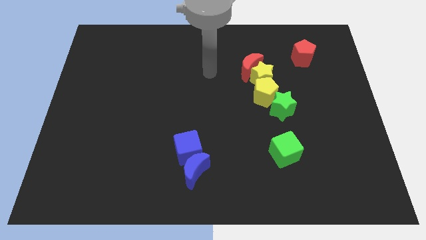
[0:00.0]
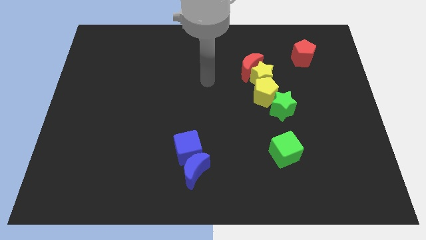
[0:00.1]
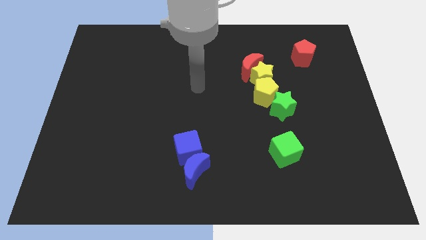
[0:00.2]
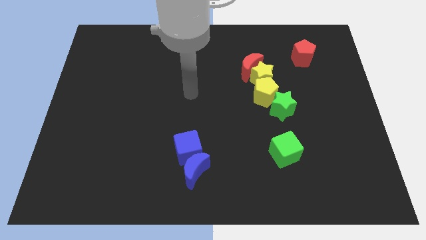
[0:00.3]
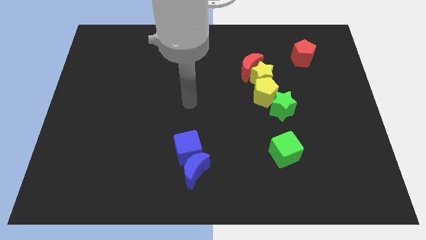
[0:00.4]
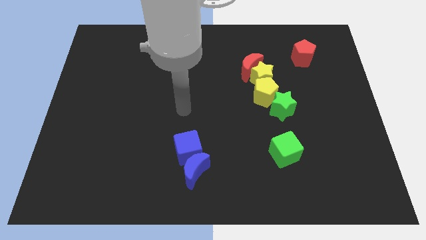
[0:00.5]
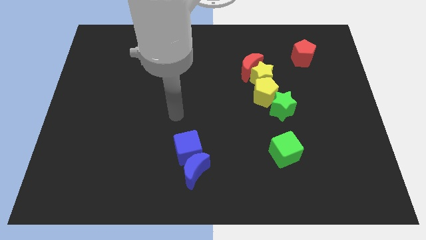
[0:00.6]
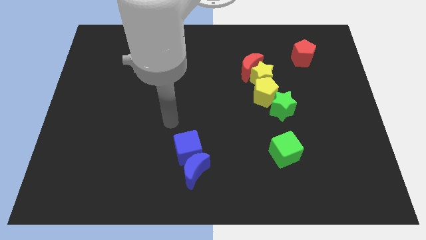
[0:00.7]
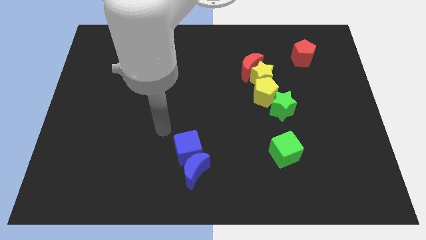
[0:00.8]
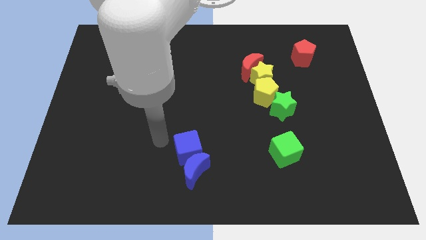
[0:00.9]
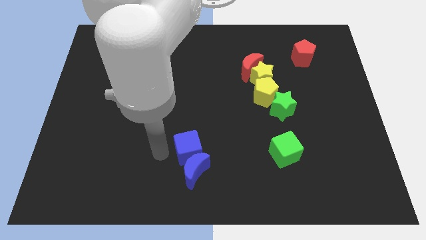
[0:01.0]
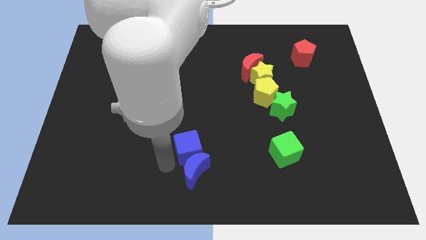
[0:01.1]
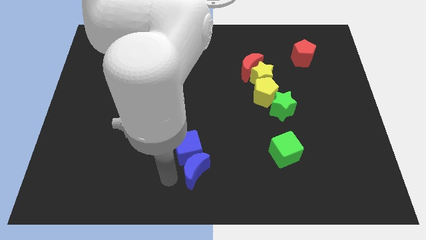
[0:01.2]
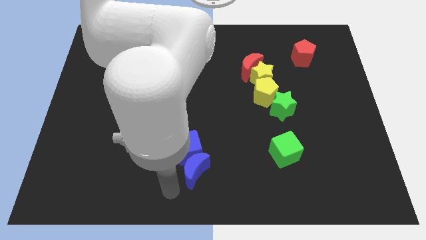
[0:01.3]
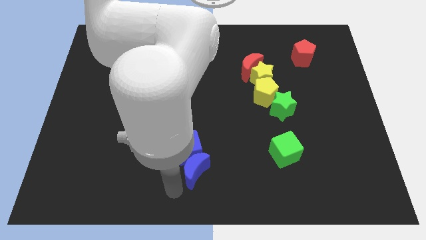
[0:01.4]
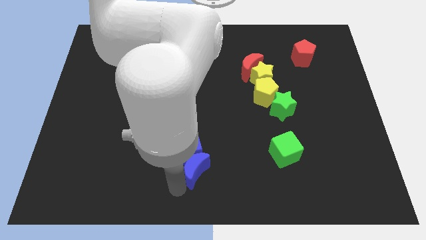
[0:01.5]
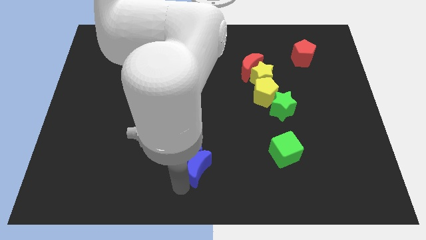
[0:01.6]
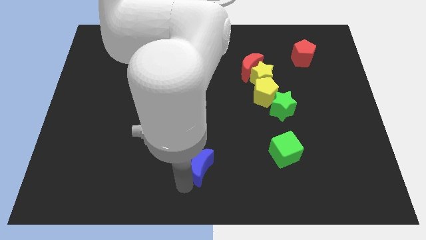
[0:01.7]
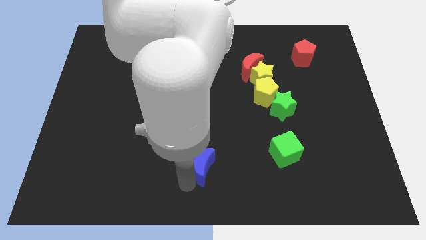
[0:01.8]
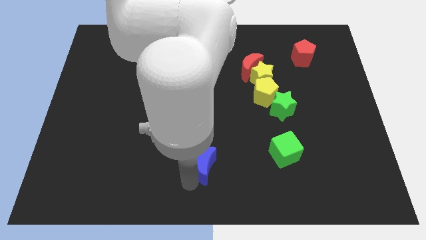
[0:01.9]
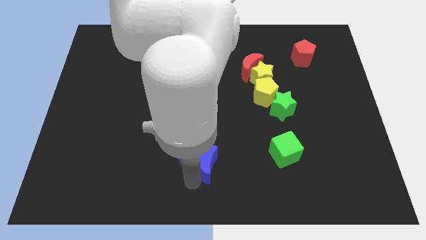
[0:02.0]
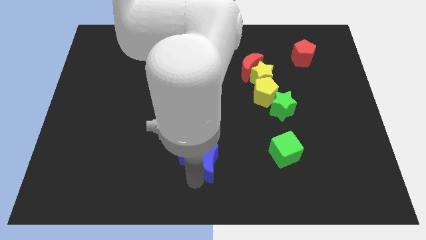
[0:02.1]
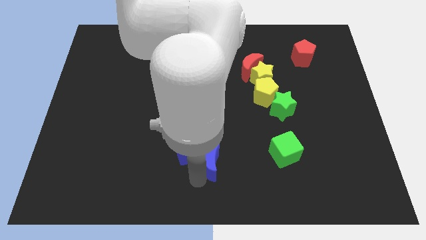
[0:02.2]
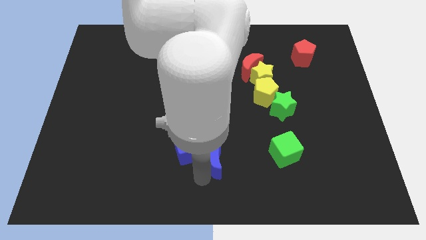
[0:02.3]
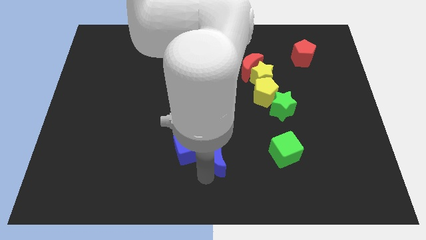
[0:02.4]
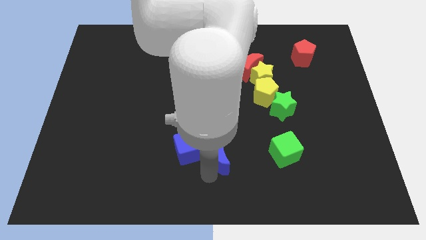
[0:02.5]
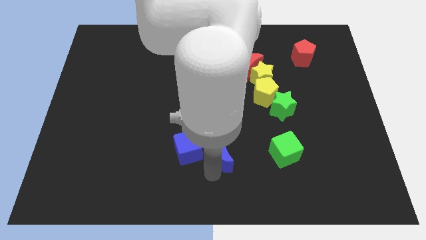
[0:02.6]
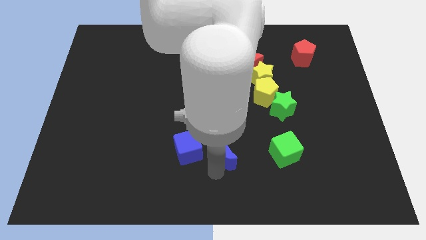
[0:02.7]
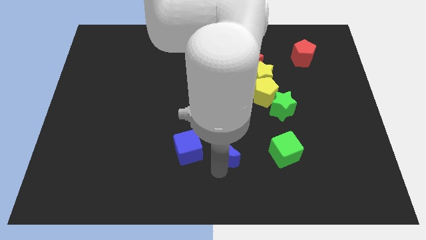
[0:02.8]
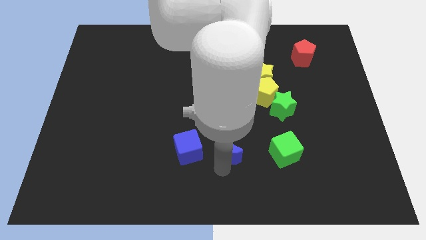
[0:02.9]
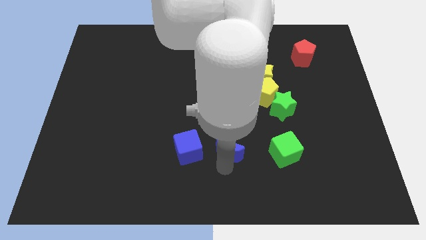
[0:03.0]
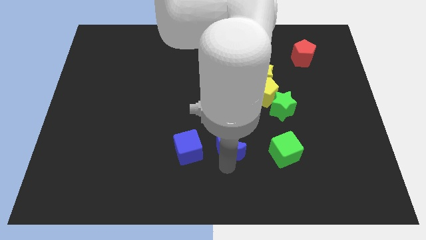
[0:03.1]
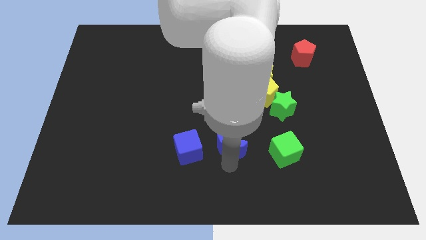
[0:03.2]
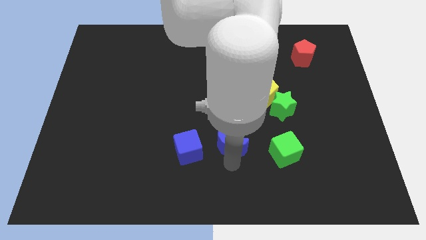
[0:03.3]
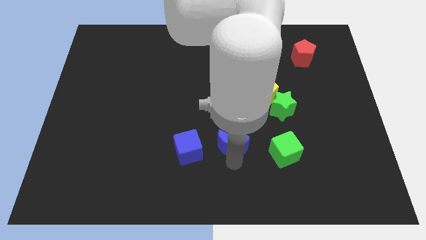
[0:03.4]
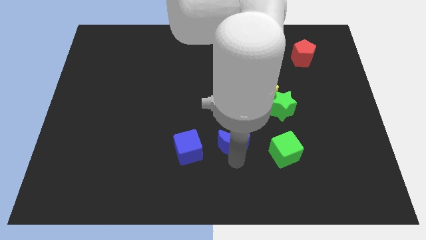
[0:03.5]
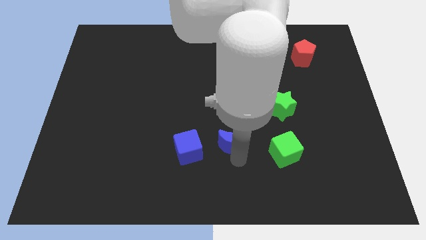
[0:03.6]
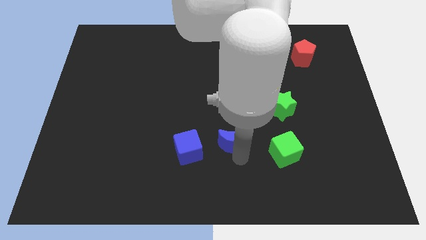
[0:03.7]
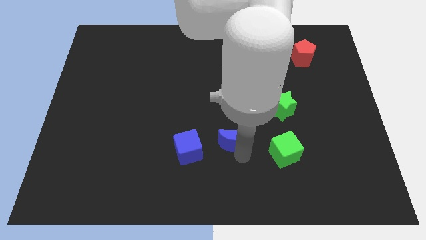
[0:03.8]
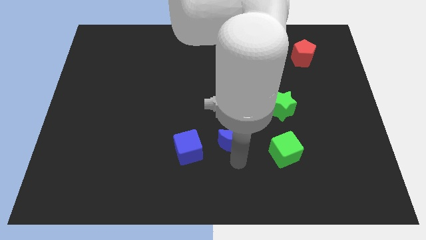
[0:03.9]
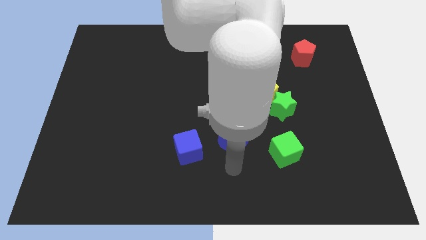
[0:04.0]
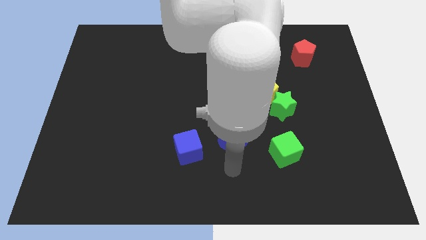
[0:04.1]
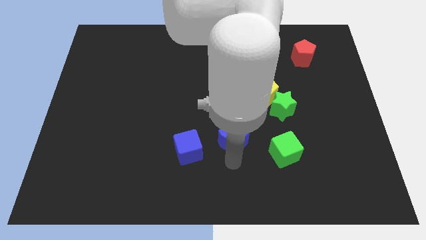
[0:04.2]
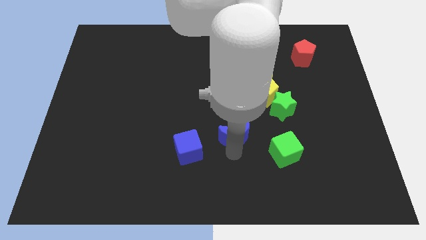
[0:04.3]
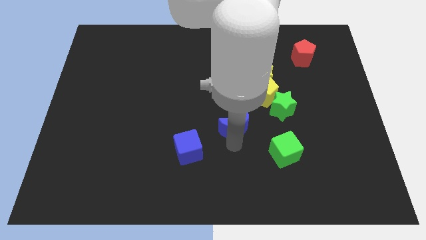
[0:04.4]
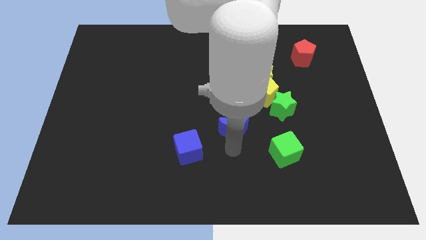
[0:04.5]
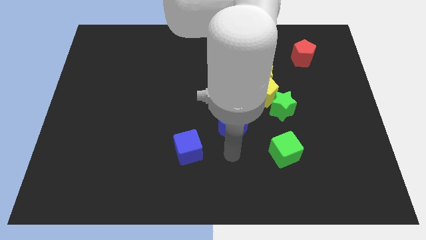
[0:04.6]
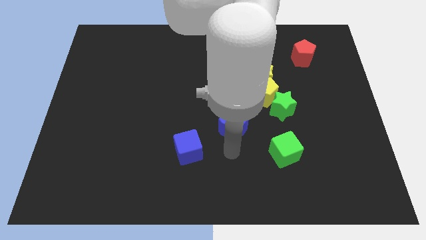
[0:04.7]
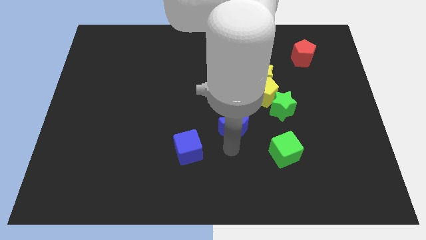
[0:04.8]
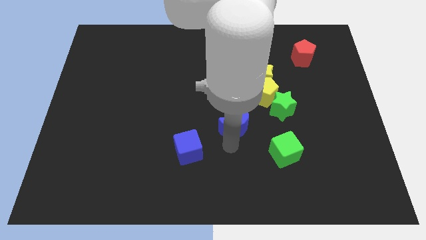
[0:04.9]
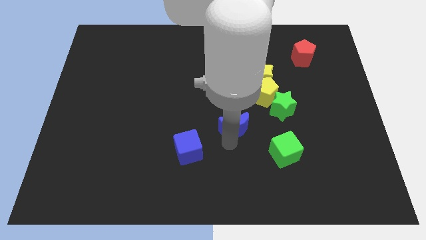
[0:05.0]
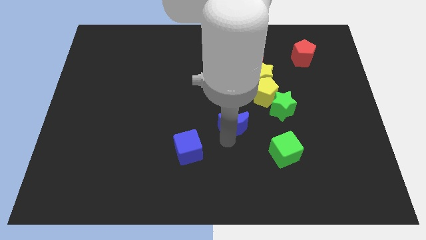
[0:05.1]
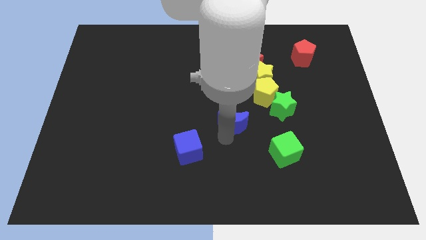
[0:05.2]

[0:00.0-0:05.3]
push the blue moon left of the green star

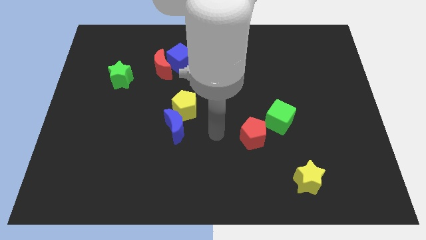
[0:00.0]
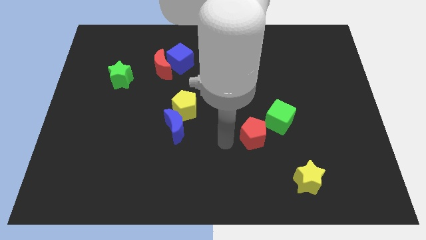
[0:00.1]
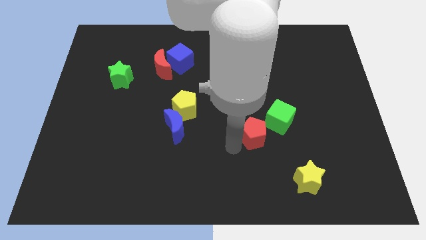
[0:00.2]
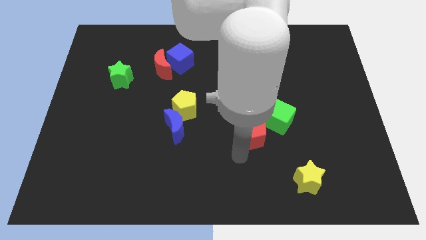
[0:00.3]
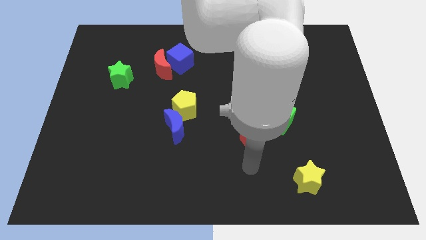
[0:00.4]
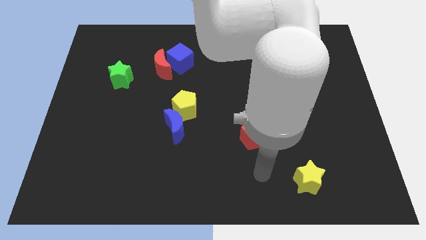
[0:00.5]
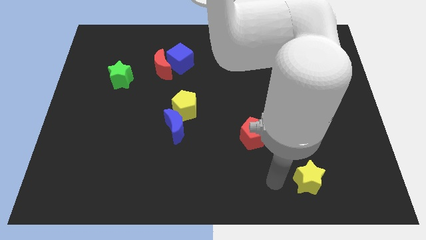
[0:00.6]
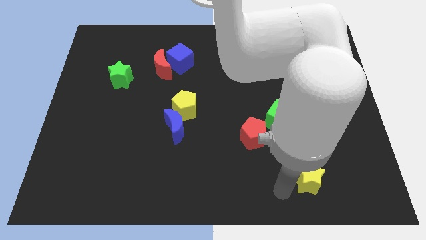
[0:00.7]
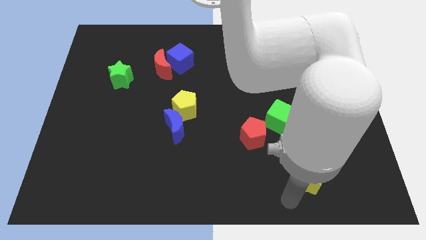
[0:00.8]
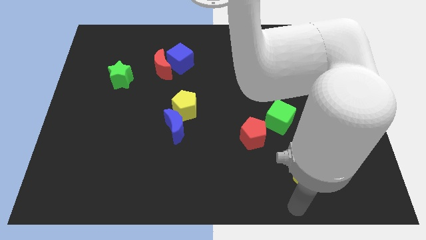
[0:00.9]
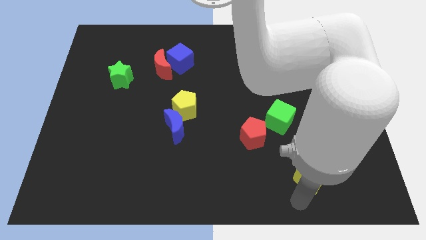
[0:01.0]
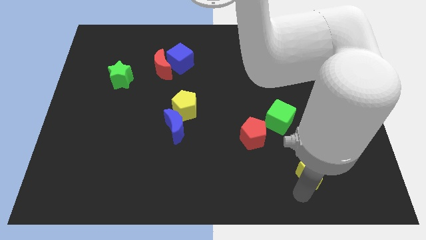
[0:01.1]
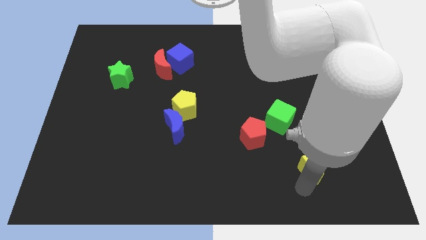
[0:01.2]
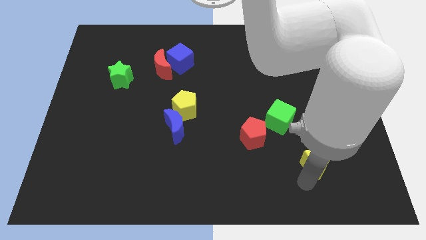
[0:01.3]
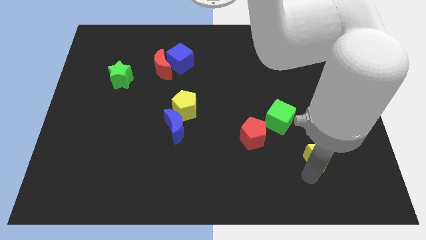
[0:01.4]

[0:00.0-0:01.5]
push the yellow star diagonally down and to the right of the green cube
